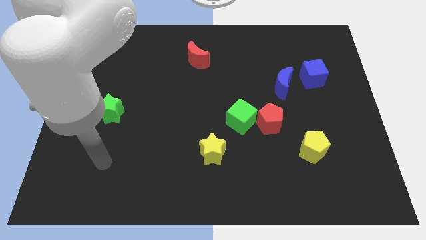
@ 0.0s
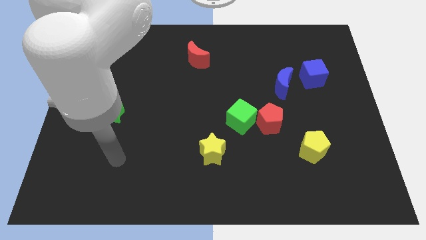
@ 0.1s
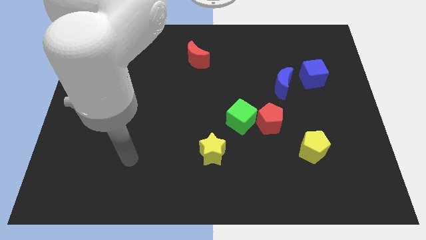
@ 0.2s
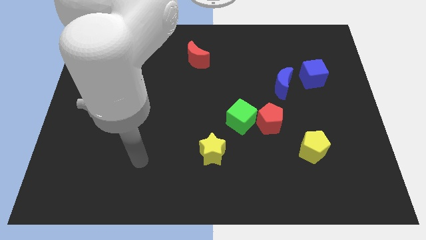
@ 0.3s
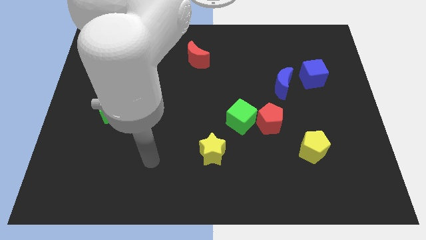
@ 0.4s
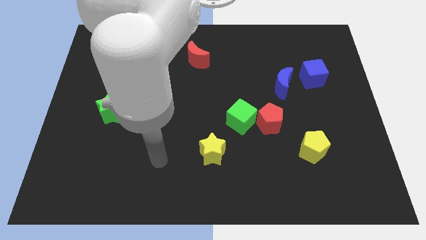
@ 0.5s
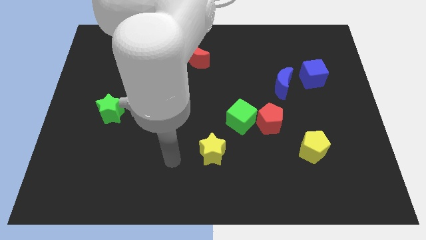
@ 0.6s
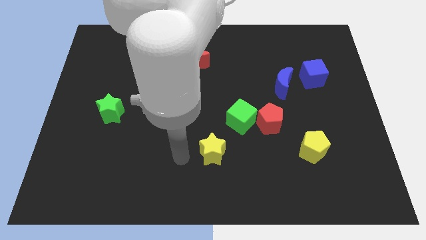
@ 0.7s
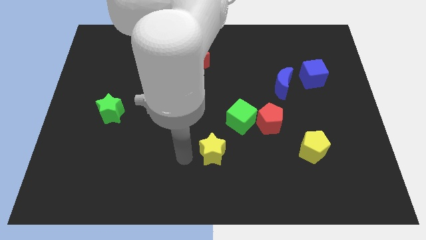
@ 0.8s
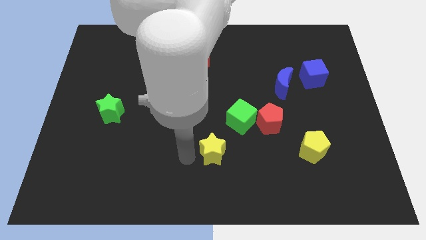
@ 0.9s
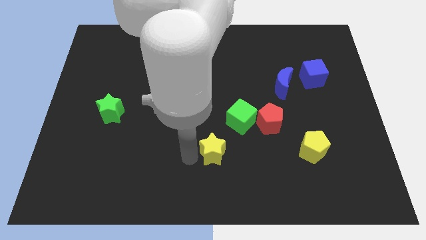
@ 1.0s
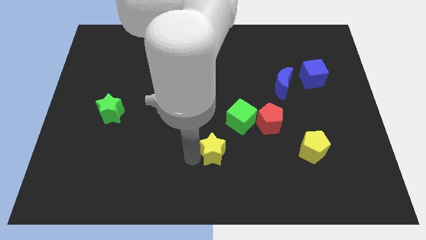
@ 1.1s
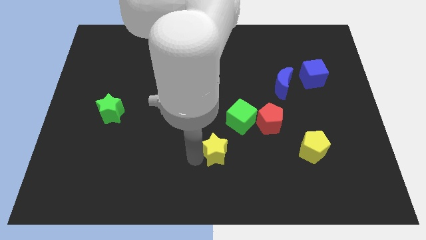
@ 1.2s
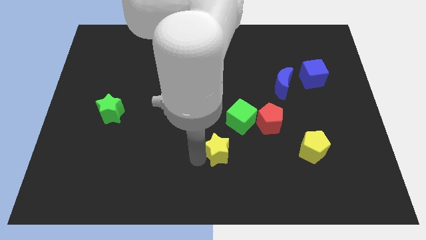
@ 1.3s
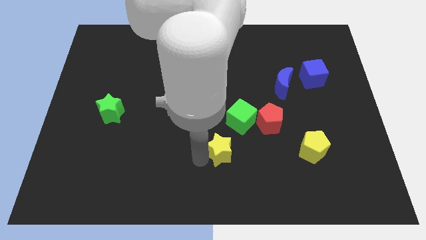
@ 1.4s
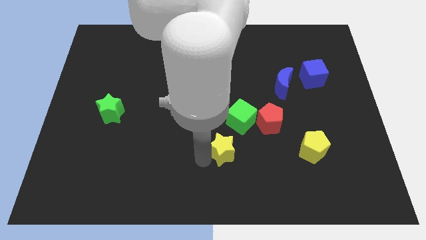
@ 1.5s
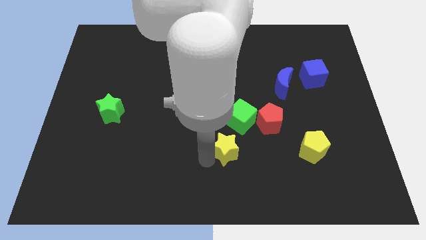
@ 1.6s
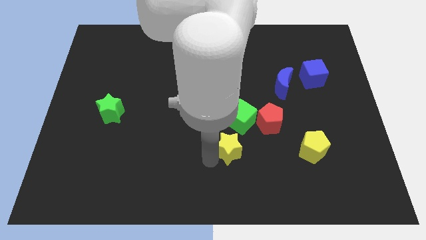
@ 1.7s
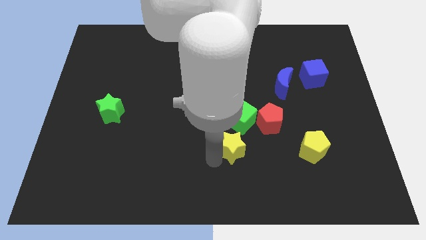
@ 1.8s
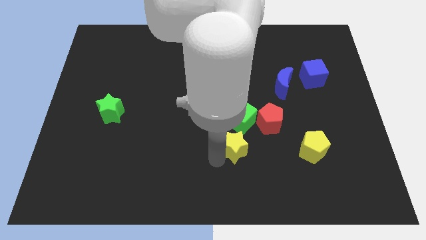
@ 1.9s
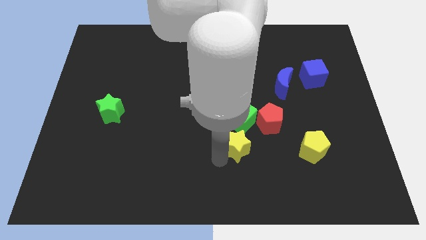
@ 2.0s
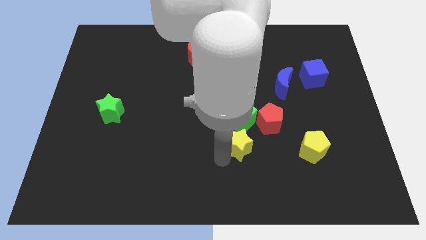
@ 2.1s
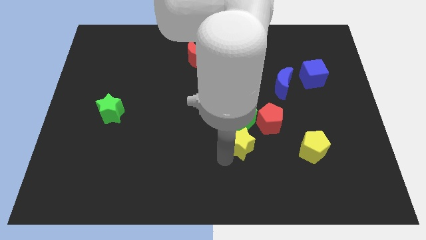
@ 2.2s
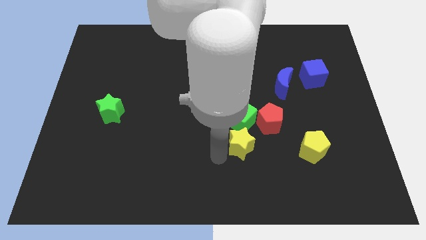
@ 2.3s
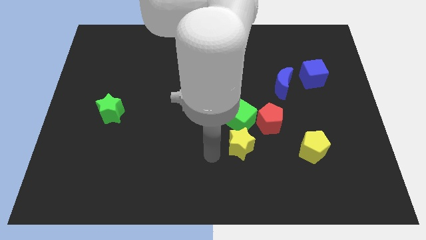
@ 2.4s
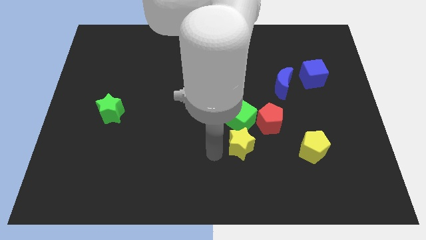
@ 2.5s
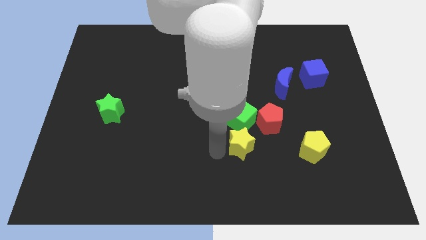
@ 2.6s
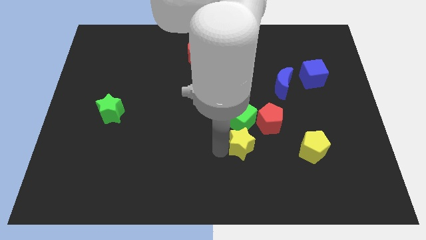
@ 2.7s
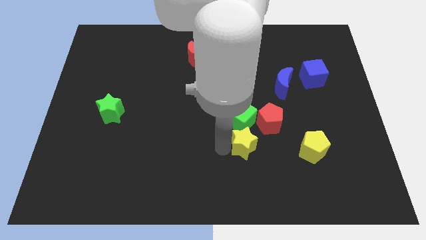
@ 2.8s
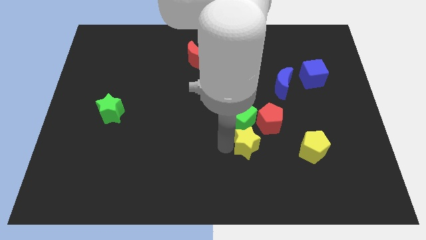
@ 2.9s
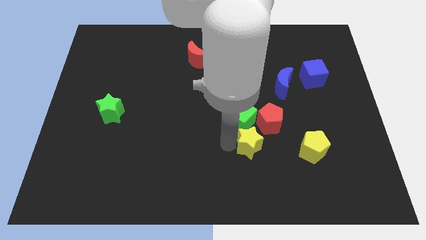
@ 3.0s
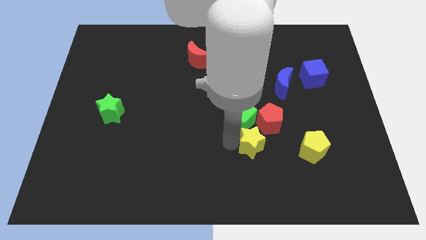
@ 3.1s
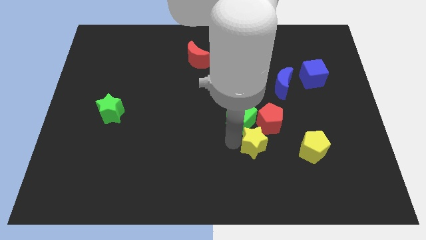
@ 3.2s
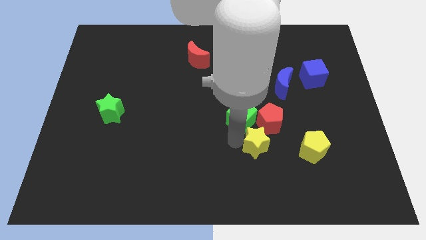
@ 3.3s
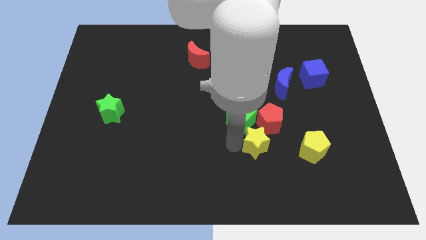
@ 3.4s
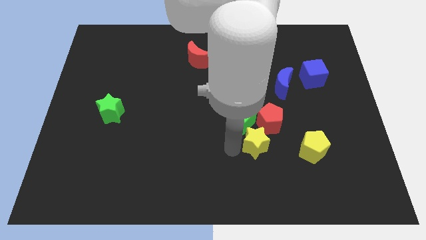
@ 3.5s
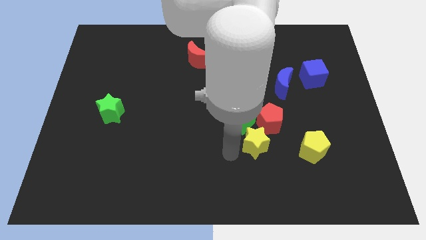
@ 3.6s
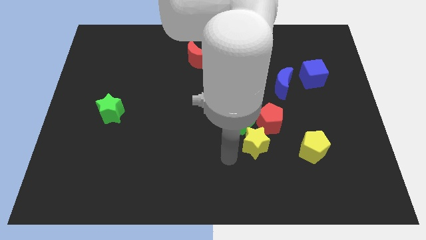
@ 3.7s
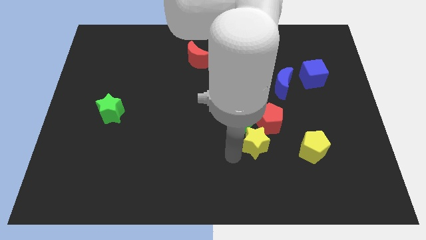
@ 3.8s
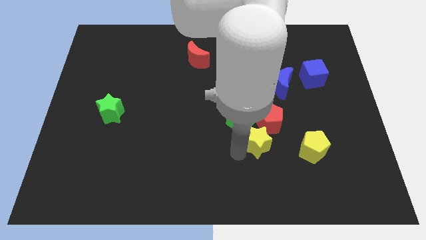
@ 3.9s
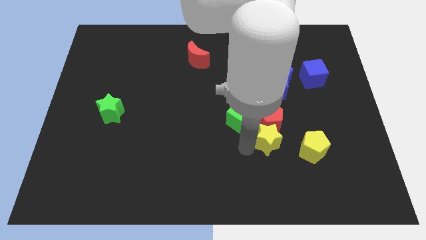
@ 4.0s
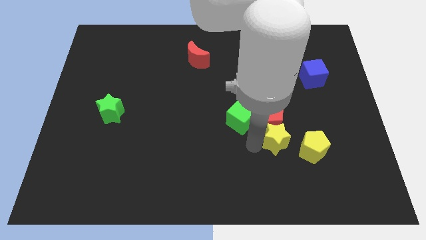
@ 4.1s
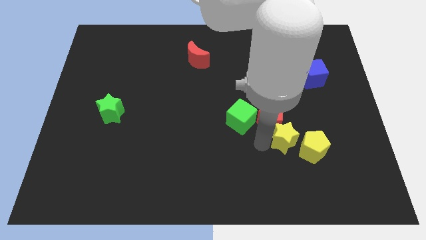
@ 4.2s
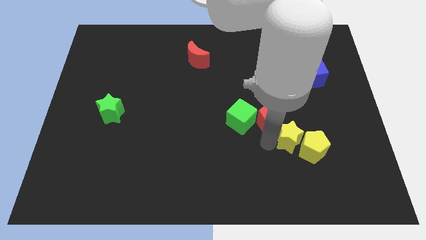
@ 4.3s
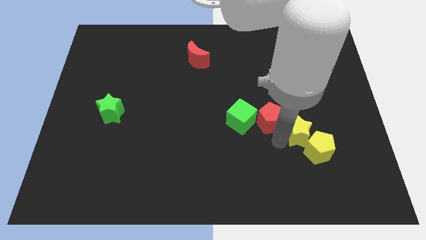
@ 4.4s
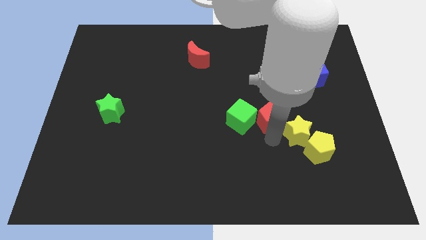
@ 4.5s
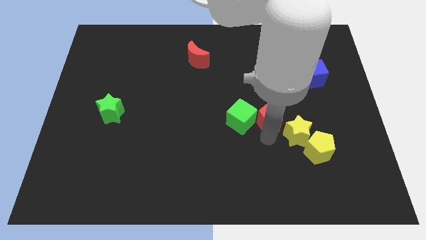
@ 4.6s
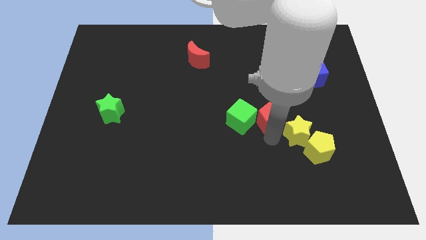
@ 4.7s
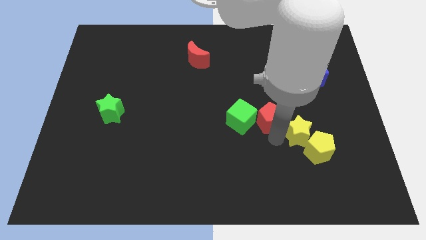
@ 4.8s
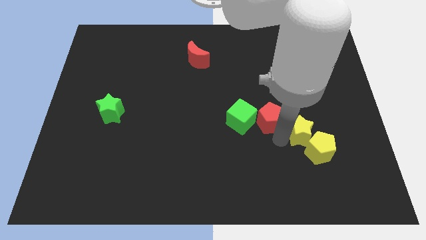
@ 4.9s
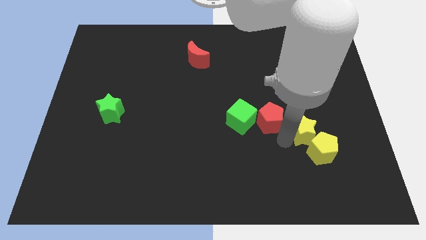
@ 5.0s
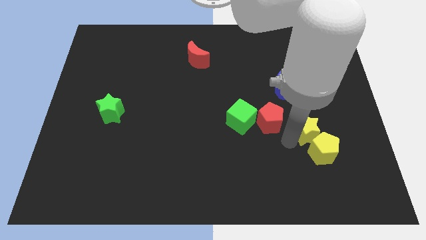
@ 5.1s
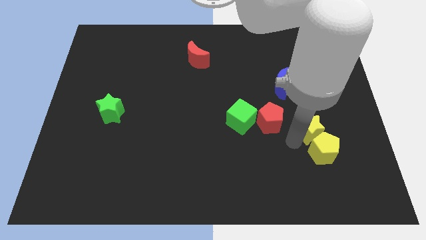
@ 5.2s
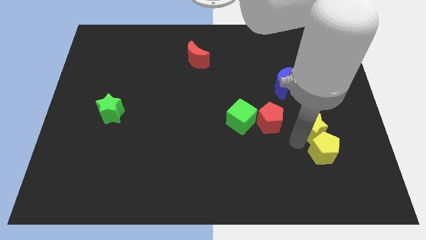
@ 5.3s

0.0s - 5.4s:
move the yellow star to the top right side of the yellow pentagon

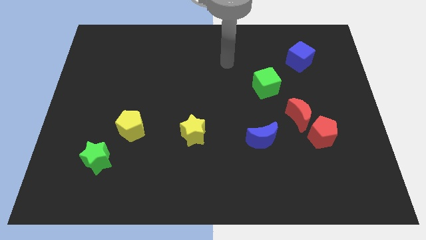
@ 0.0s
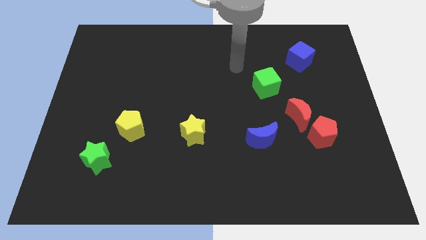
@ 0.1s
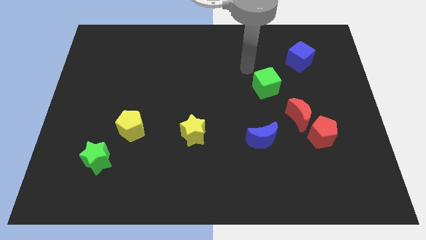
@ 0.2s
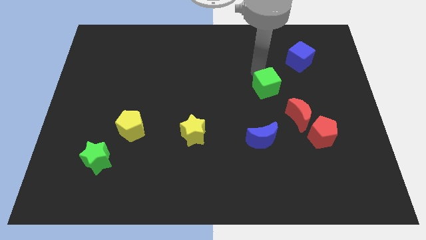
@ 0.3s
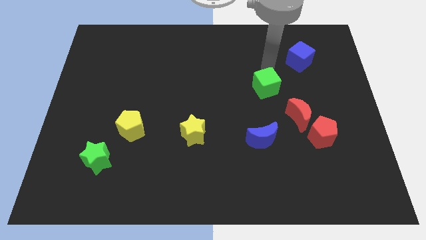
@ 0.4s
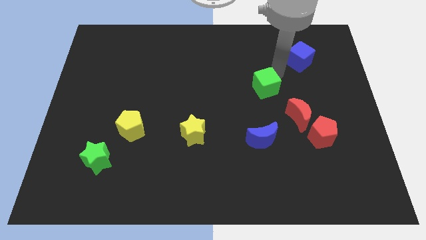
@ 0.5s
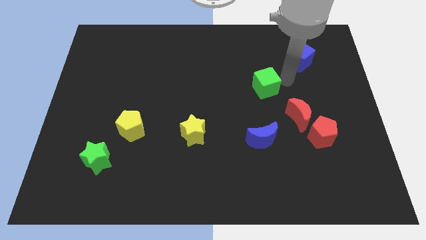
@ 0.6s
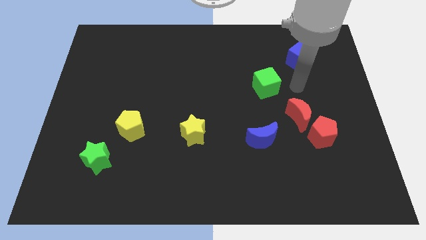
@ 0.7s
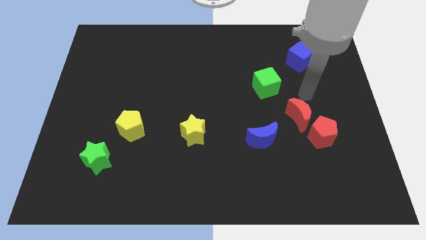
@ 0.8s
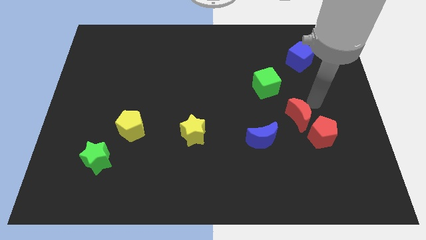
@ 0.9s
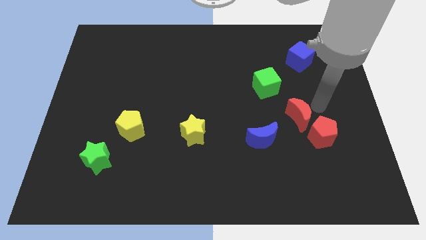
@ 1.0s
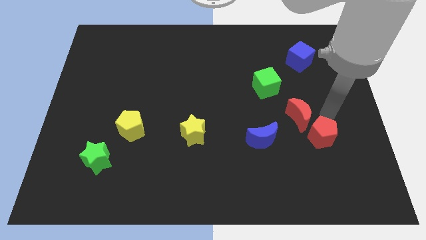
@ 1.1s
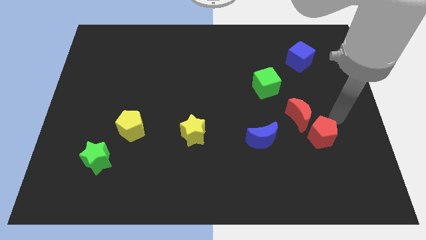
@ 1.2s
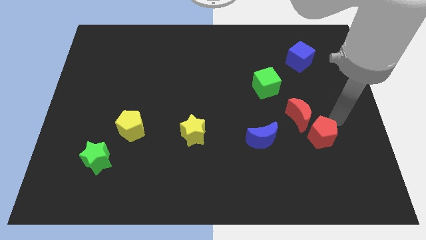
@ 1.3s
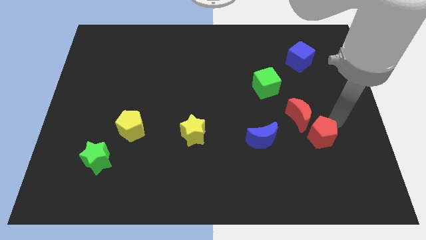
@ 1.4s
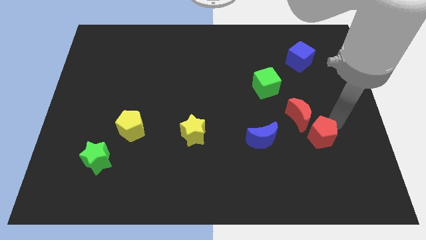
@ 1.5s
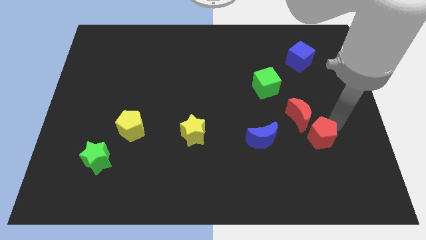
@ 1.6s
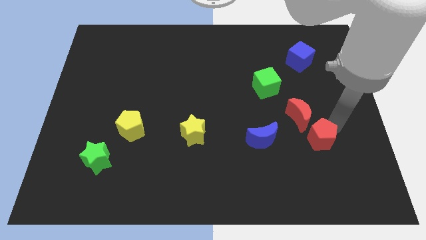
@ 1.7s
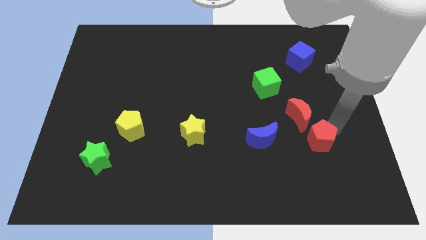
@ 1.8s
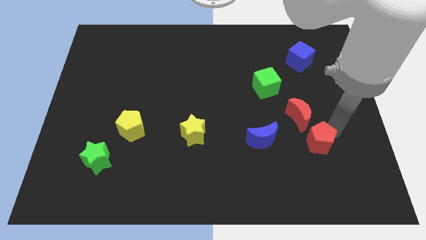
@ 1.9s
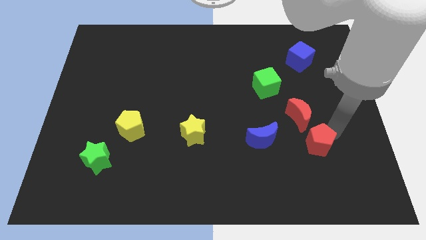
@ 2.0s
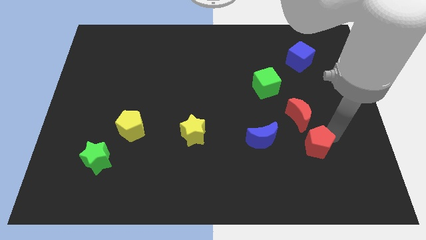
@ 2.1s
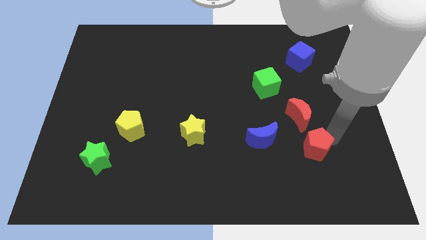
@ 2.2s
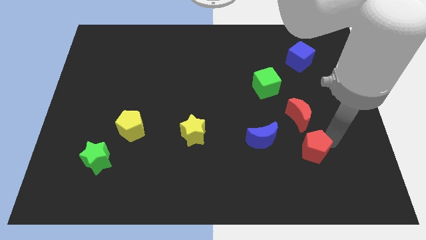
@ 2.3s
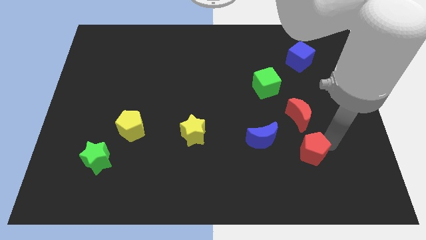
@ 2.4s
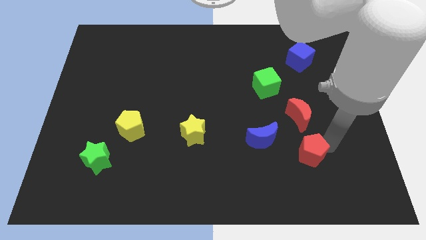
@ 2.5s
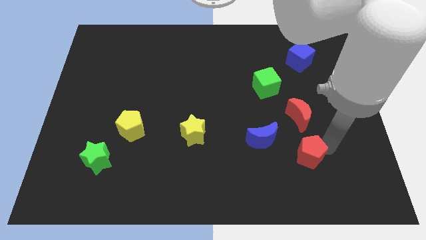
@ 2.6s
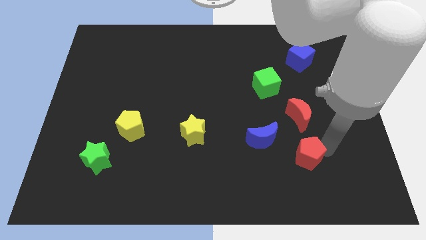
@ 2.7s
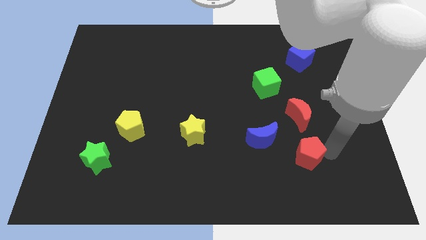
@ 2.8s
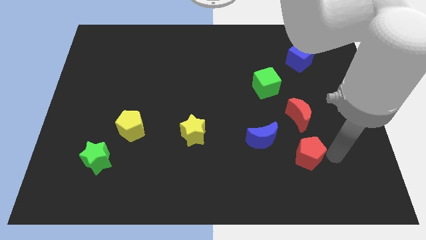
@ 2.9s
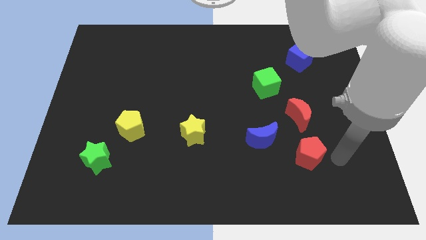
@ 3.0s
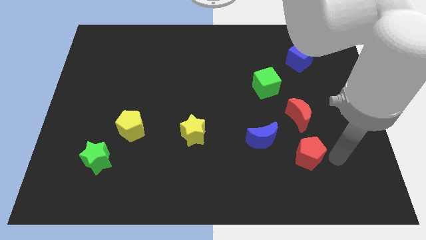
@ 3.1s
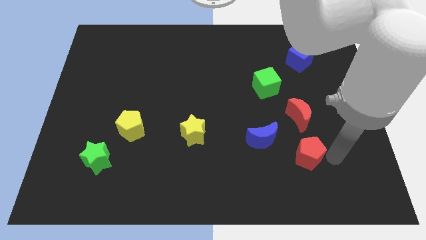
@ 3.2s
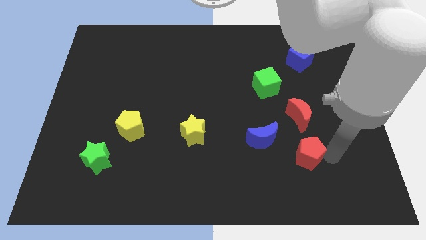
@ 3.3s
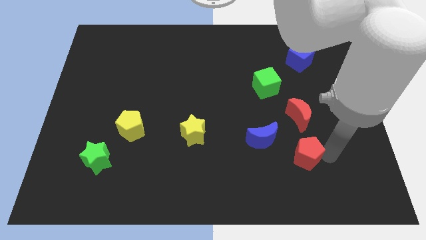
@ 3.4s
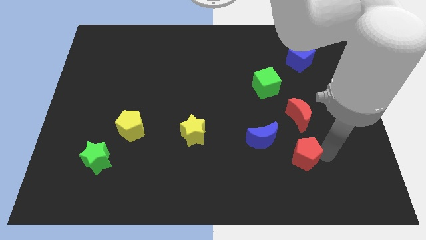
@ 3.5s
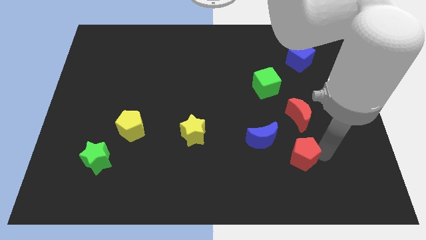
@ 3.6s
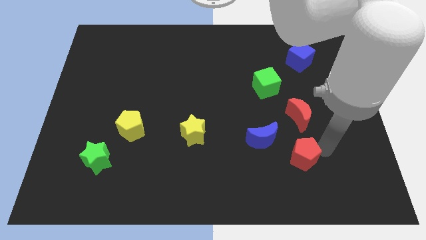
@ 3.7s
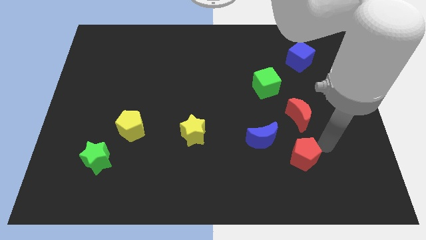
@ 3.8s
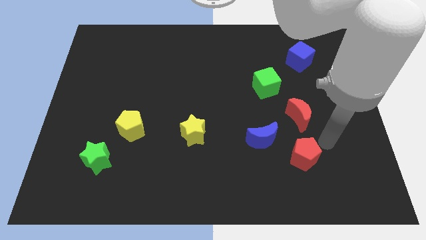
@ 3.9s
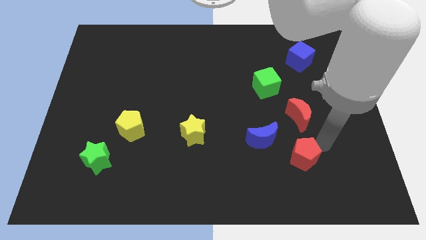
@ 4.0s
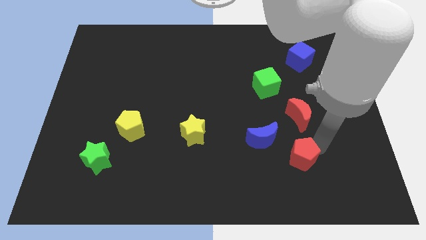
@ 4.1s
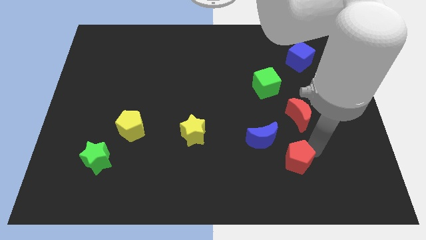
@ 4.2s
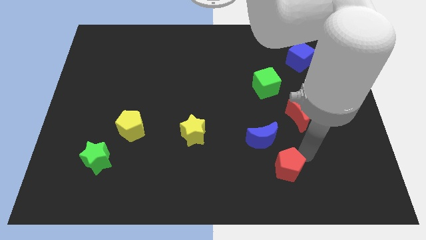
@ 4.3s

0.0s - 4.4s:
slide the red pentagon below the blue moon
